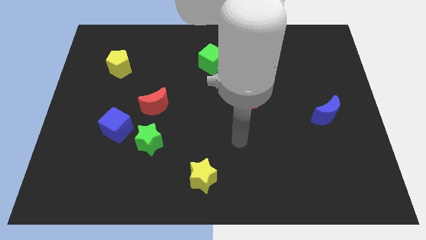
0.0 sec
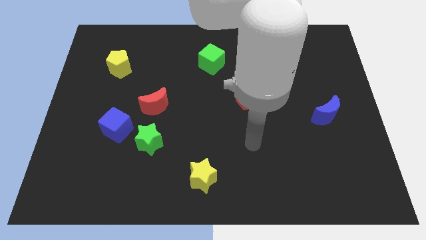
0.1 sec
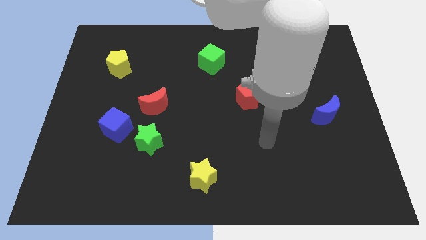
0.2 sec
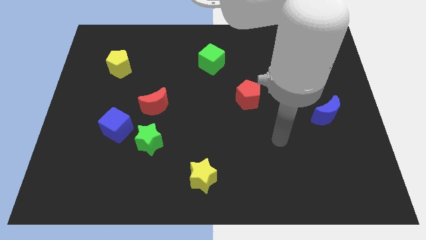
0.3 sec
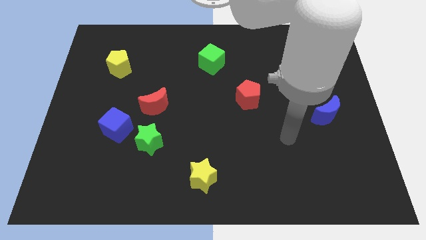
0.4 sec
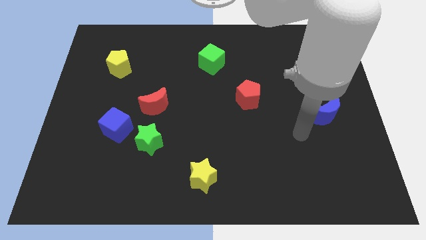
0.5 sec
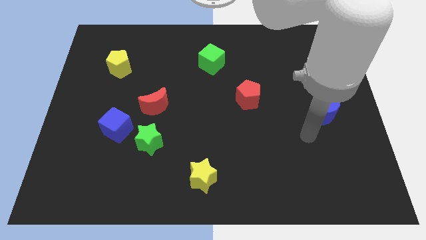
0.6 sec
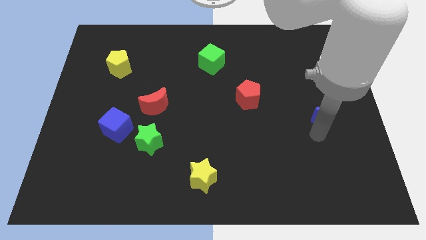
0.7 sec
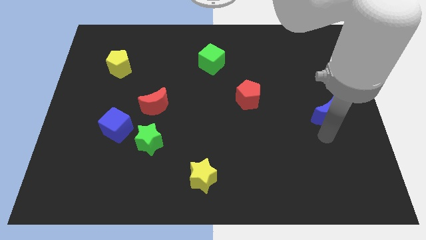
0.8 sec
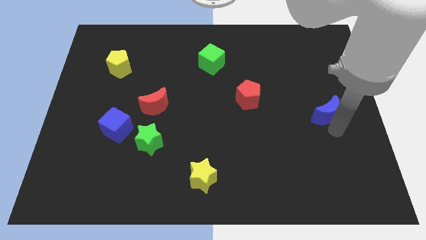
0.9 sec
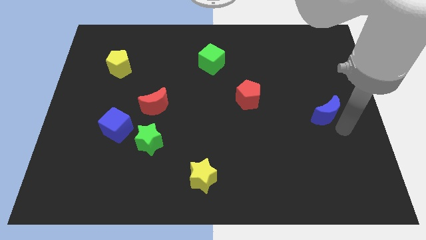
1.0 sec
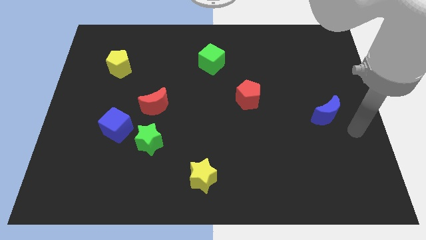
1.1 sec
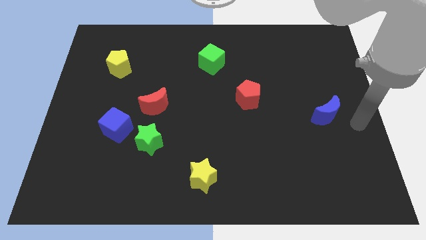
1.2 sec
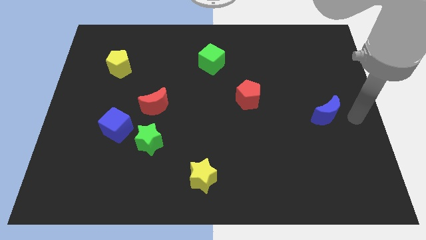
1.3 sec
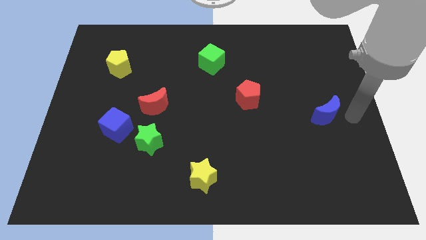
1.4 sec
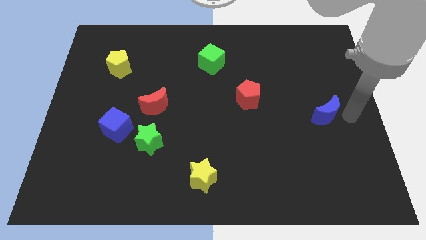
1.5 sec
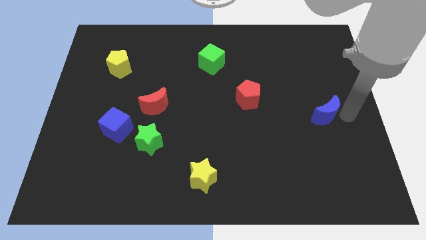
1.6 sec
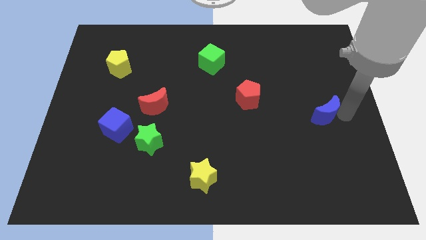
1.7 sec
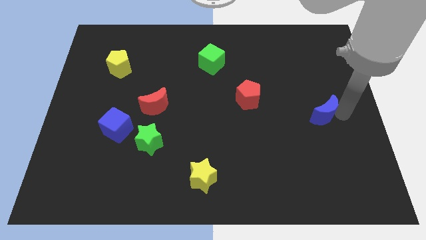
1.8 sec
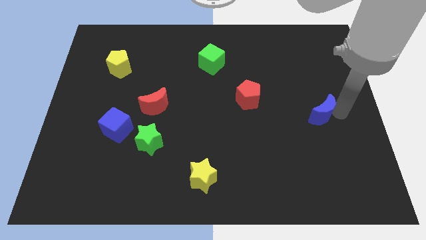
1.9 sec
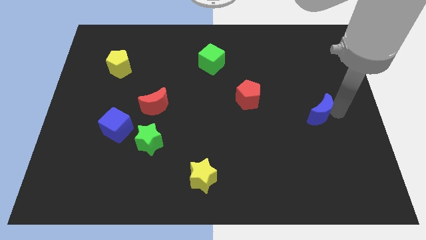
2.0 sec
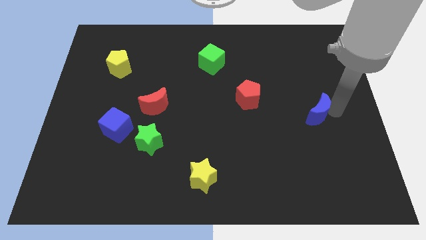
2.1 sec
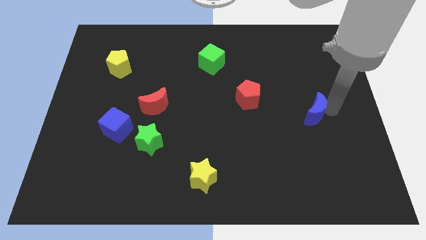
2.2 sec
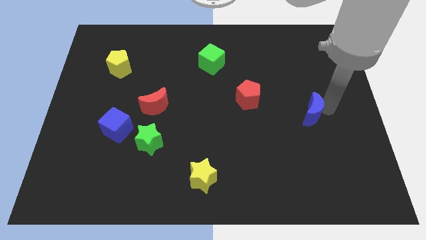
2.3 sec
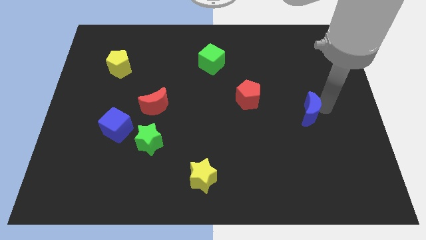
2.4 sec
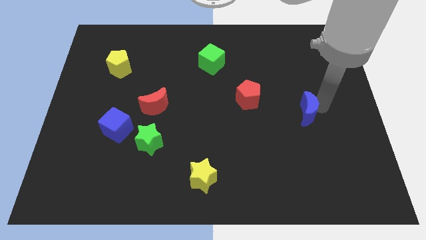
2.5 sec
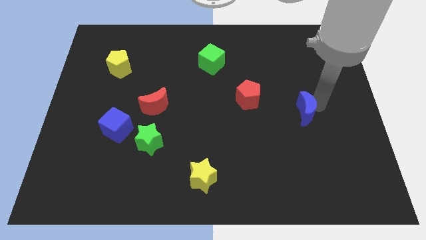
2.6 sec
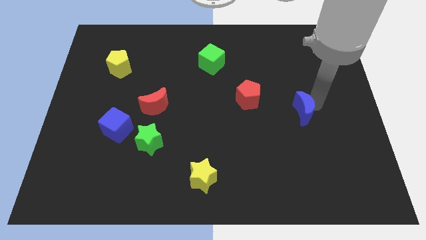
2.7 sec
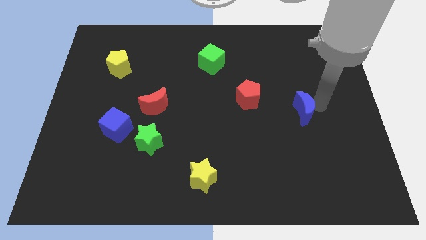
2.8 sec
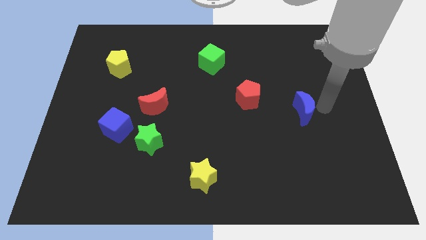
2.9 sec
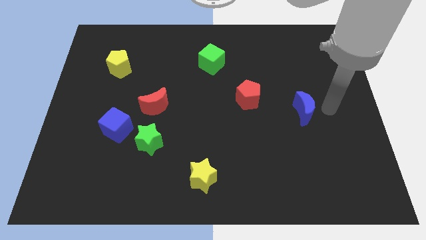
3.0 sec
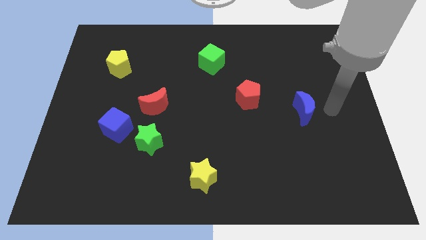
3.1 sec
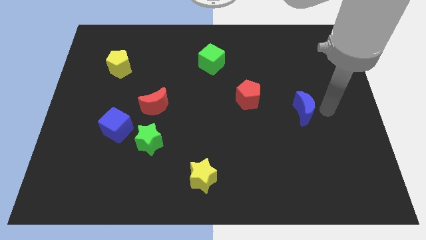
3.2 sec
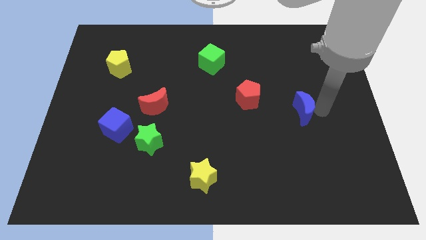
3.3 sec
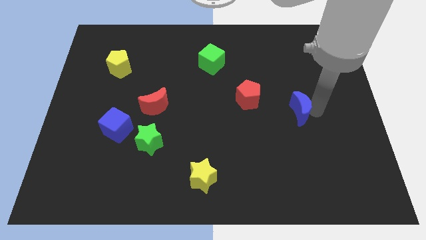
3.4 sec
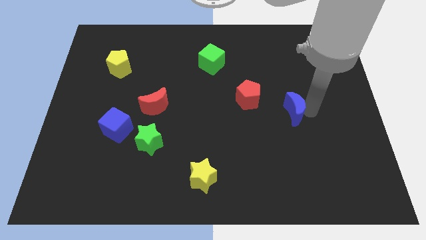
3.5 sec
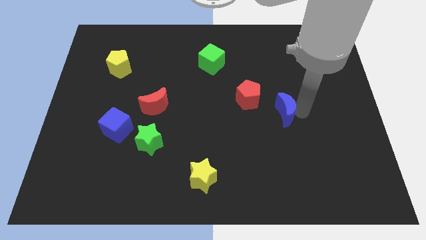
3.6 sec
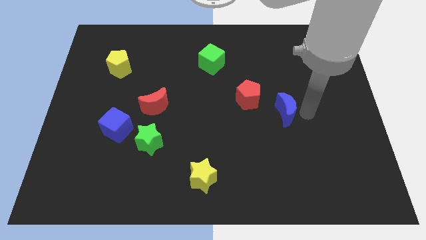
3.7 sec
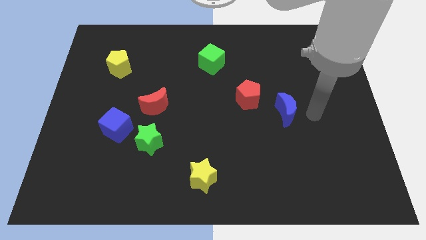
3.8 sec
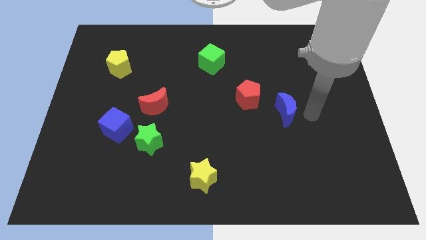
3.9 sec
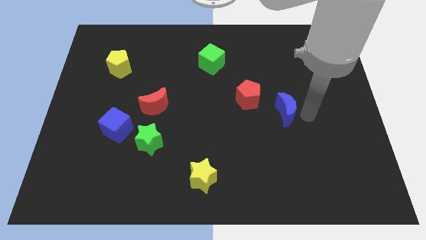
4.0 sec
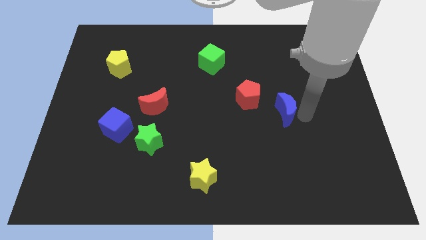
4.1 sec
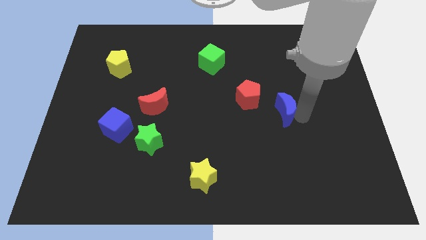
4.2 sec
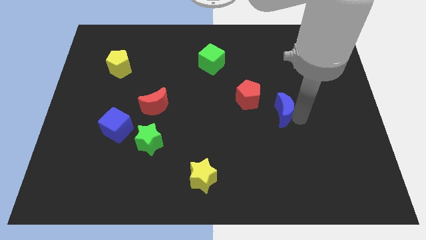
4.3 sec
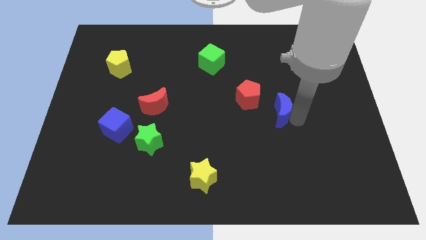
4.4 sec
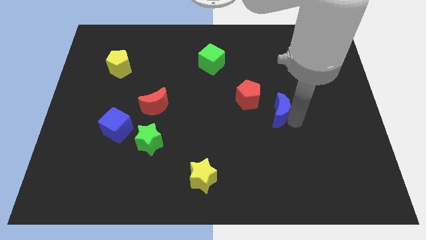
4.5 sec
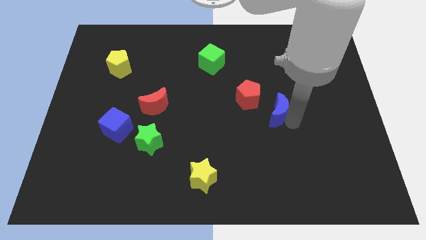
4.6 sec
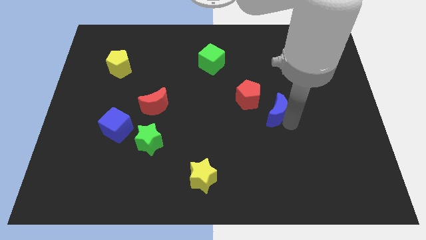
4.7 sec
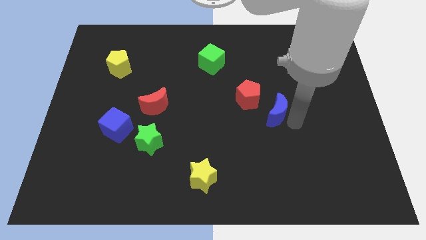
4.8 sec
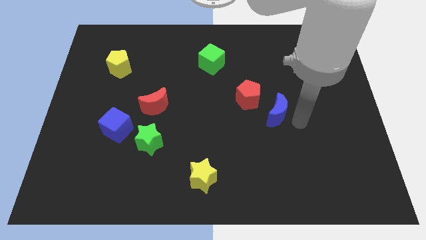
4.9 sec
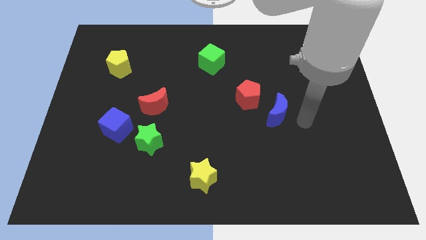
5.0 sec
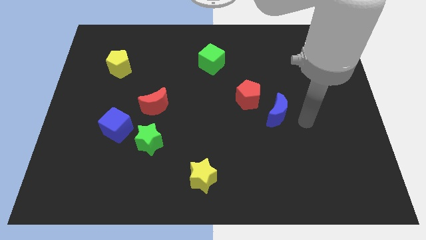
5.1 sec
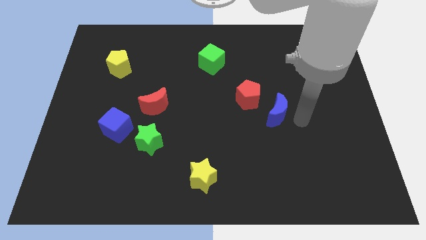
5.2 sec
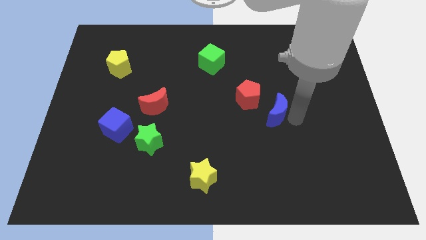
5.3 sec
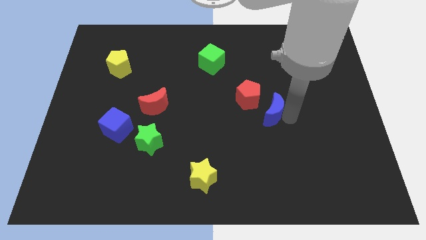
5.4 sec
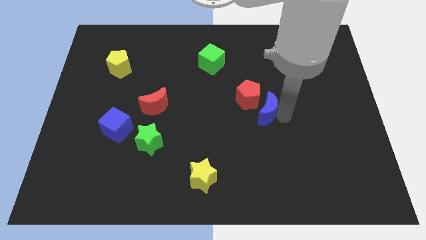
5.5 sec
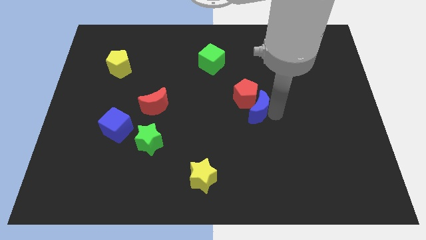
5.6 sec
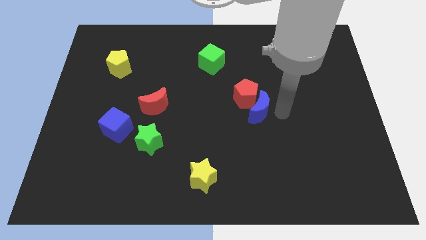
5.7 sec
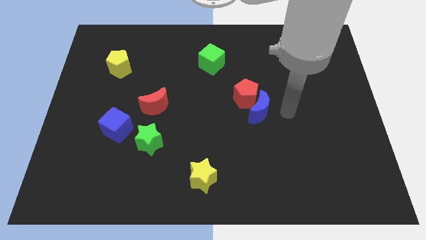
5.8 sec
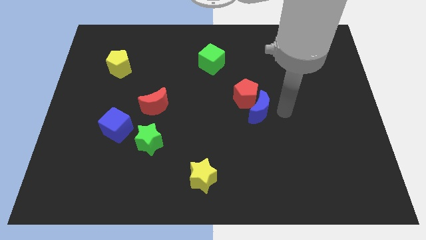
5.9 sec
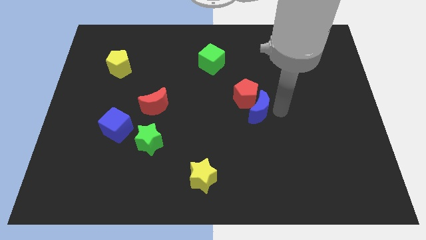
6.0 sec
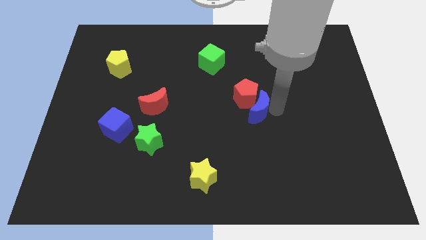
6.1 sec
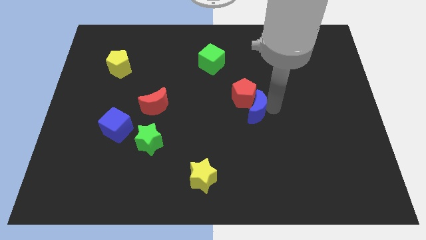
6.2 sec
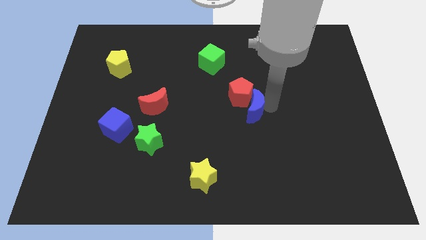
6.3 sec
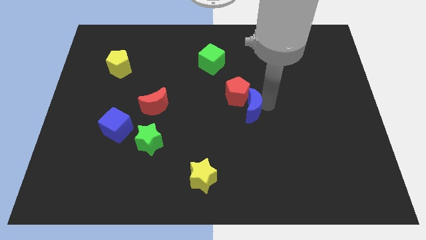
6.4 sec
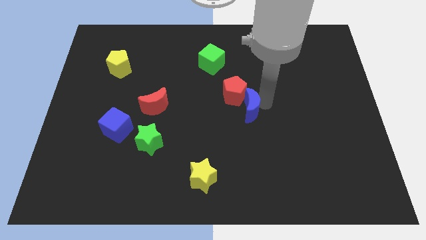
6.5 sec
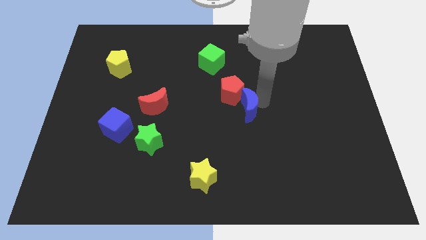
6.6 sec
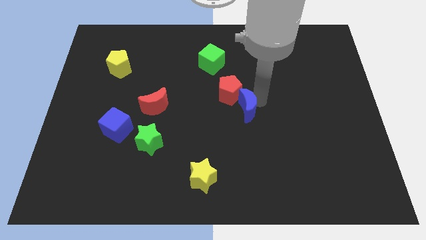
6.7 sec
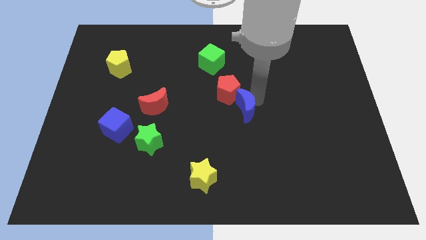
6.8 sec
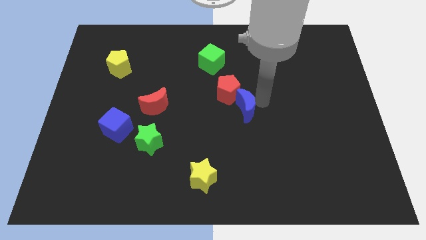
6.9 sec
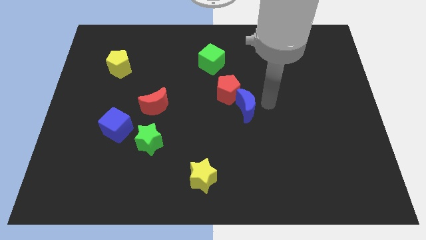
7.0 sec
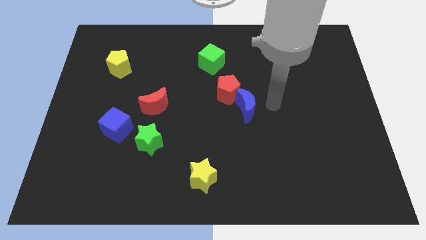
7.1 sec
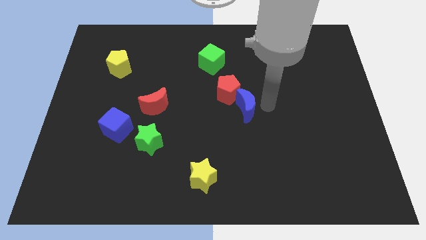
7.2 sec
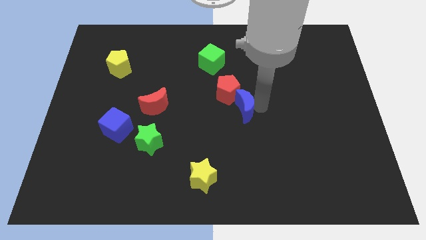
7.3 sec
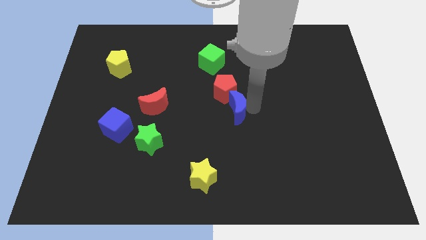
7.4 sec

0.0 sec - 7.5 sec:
move the blue moon to the left

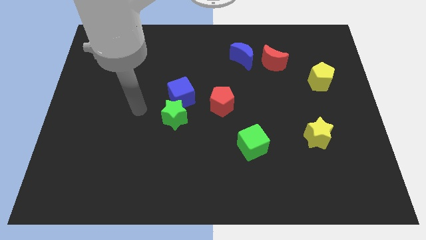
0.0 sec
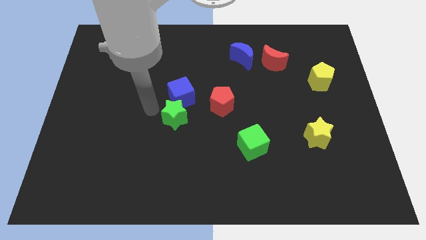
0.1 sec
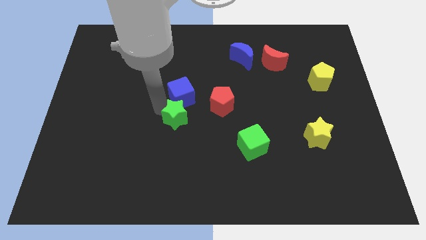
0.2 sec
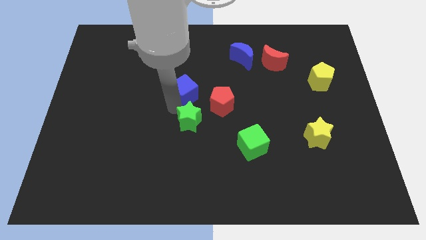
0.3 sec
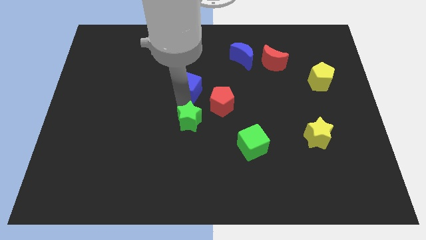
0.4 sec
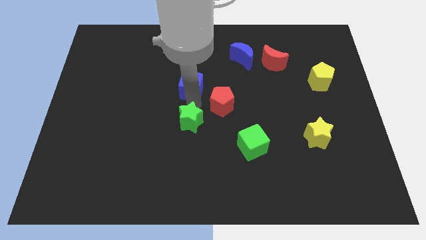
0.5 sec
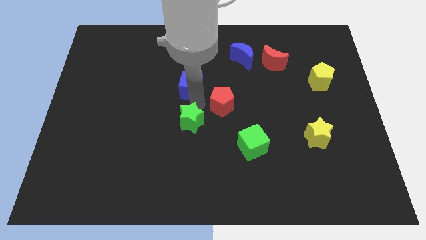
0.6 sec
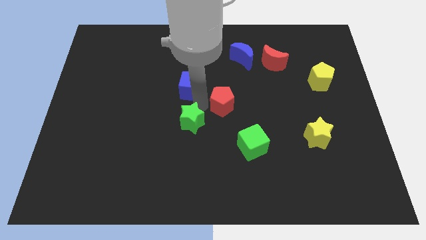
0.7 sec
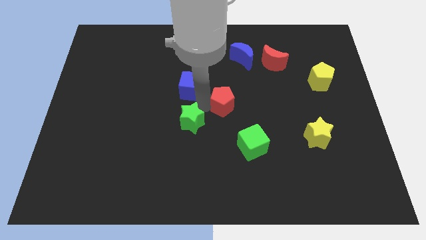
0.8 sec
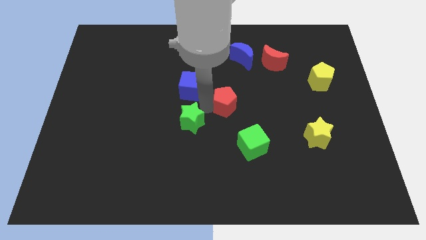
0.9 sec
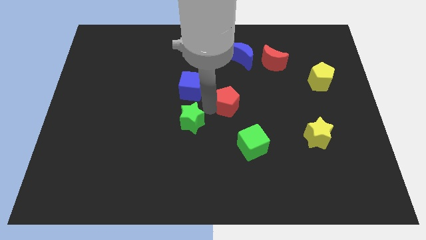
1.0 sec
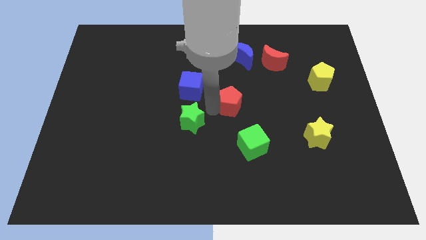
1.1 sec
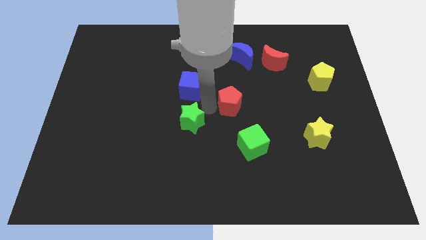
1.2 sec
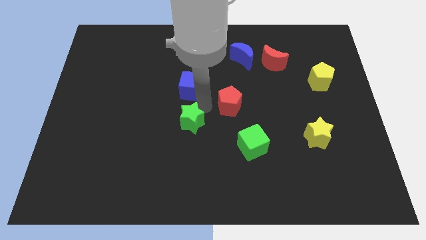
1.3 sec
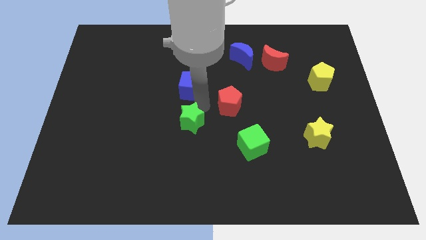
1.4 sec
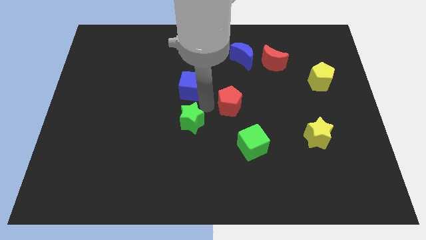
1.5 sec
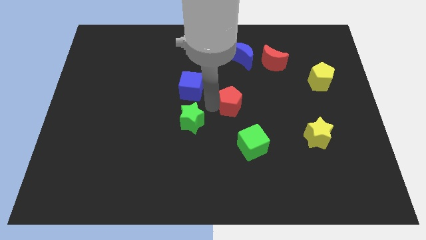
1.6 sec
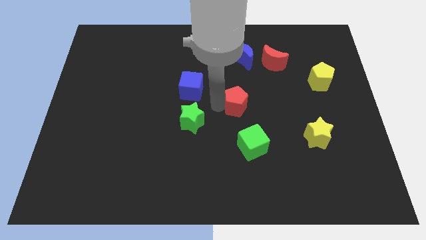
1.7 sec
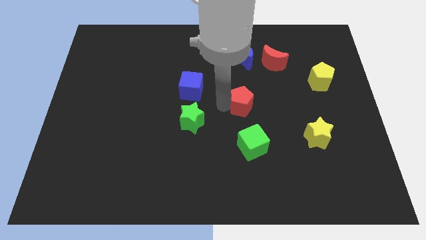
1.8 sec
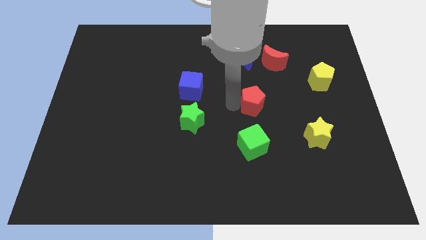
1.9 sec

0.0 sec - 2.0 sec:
move the red pentagon right a bit
